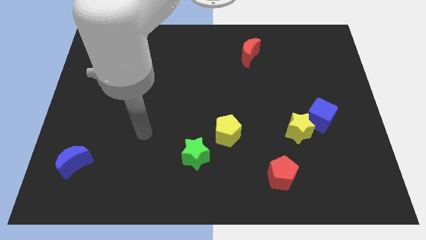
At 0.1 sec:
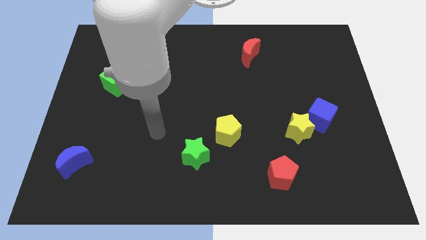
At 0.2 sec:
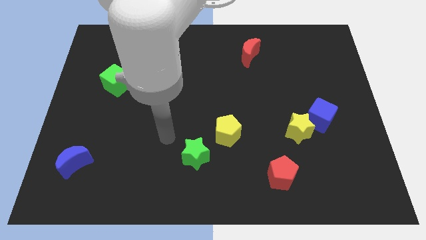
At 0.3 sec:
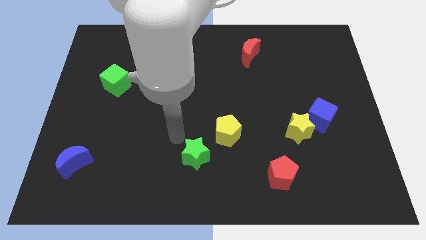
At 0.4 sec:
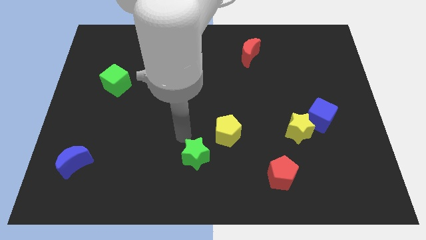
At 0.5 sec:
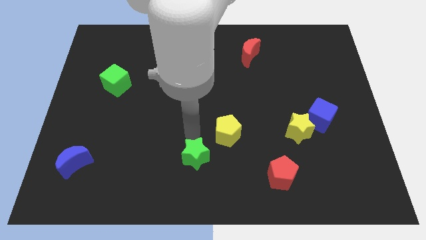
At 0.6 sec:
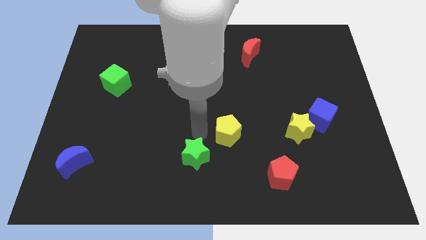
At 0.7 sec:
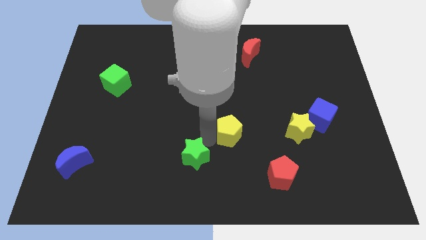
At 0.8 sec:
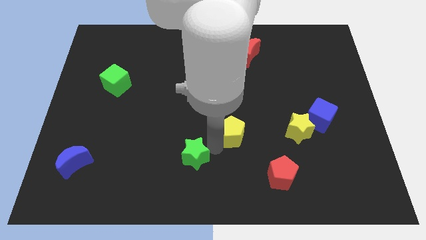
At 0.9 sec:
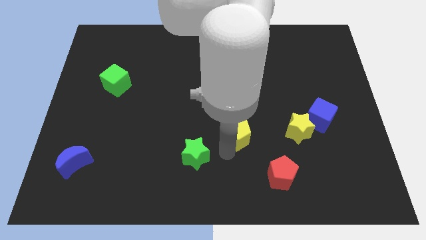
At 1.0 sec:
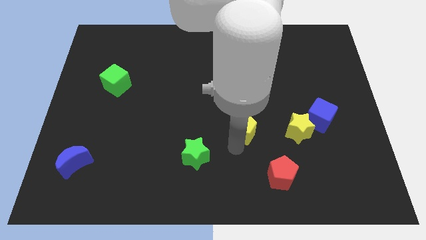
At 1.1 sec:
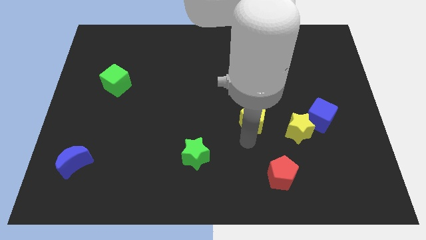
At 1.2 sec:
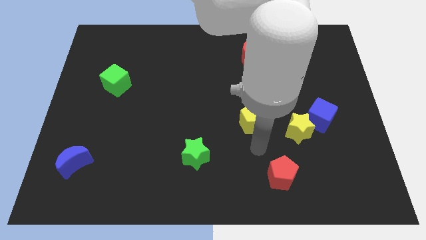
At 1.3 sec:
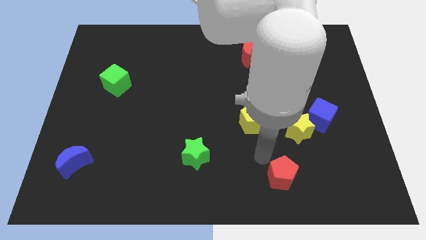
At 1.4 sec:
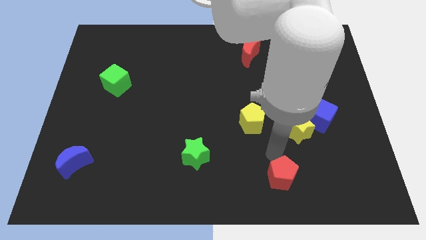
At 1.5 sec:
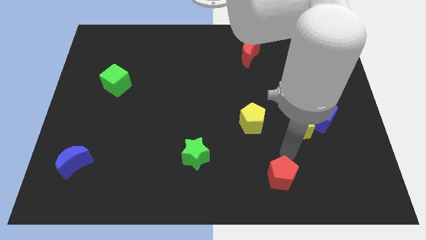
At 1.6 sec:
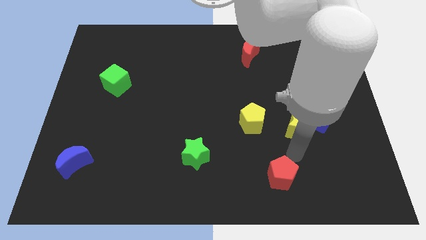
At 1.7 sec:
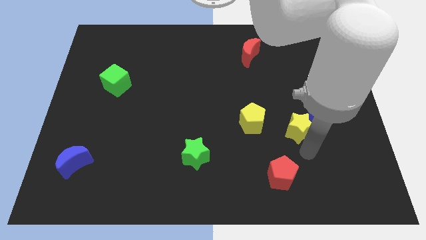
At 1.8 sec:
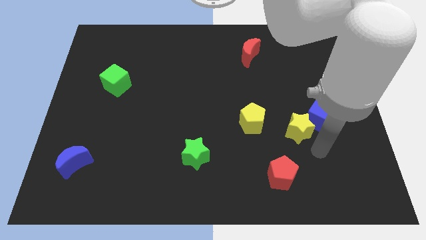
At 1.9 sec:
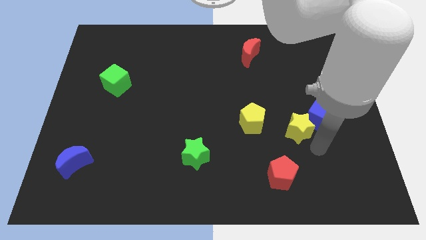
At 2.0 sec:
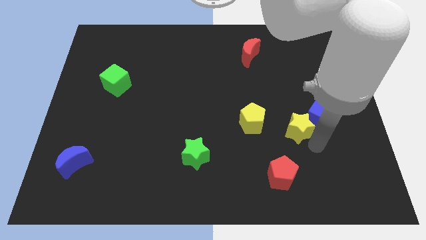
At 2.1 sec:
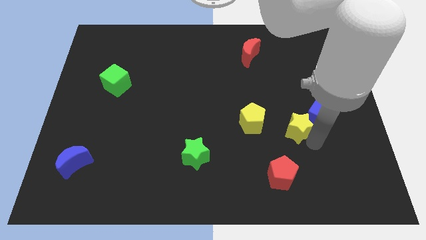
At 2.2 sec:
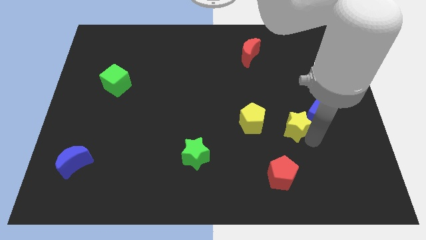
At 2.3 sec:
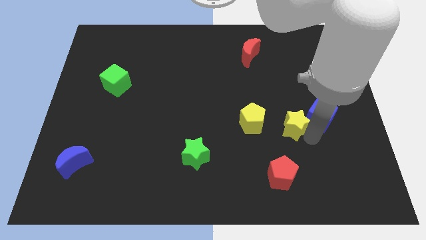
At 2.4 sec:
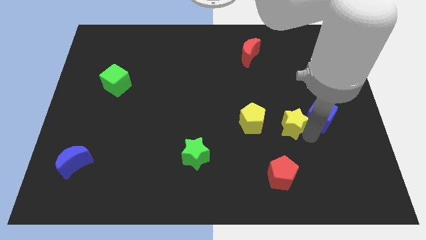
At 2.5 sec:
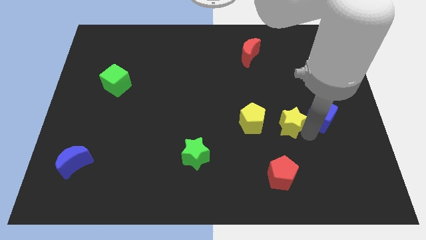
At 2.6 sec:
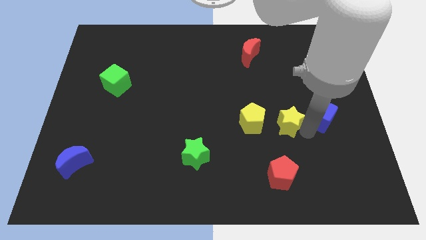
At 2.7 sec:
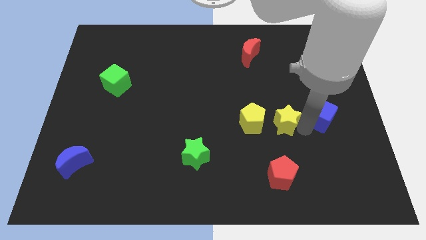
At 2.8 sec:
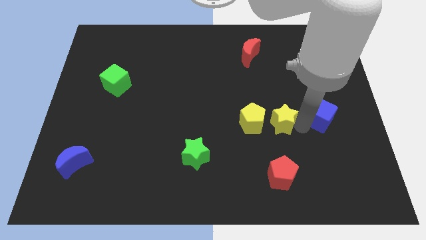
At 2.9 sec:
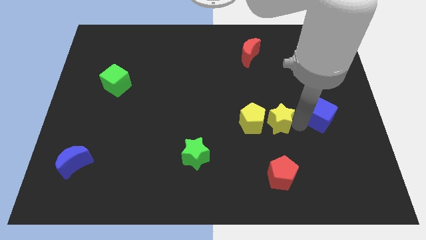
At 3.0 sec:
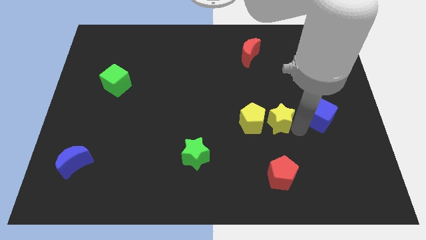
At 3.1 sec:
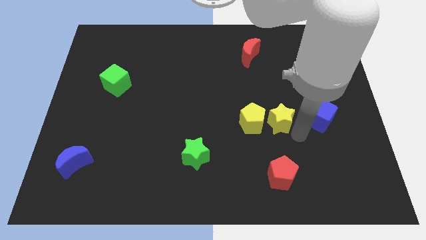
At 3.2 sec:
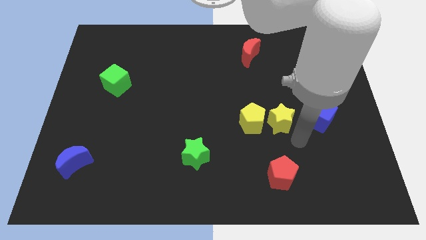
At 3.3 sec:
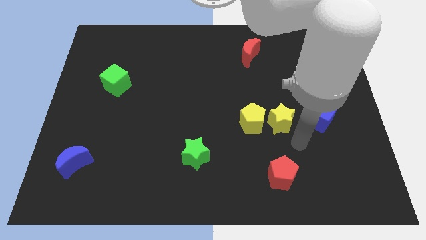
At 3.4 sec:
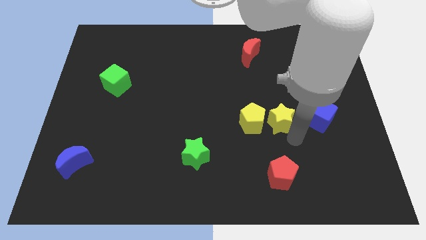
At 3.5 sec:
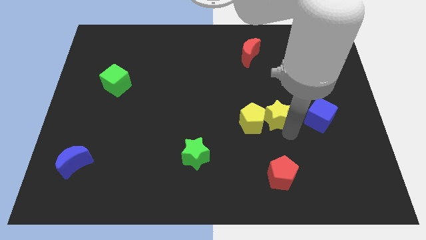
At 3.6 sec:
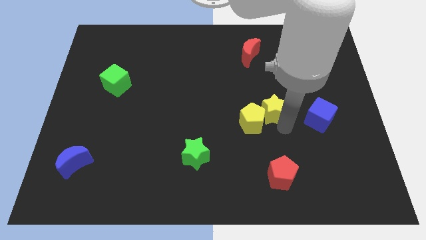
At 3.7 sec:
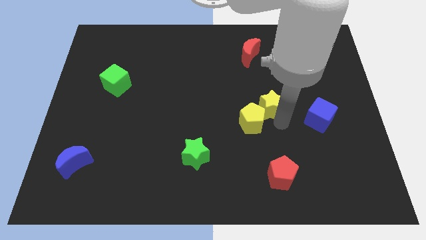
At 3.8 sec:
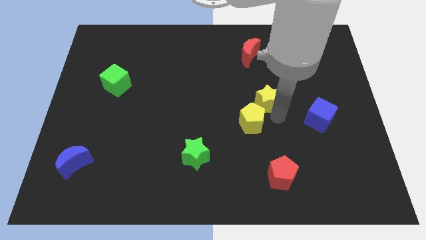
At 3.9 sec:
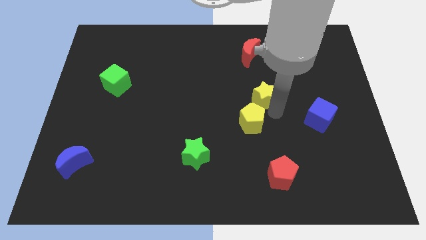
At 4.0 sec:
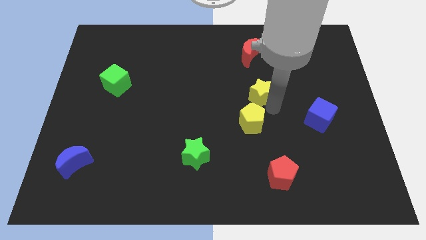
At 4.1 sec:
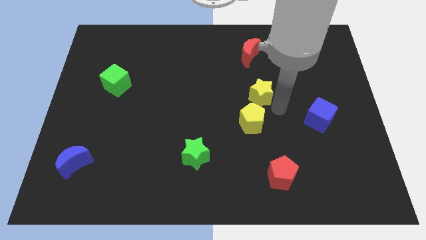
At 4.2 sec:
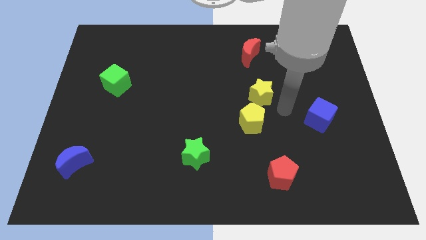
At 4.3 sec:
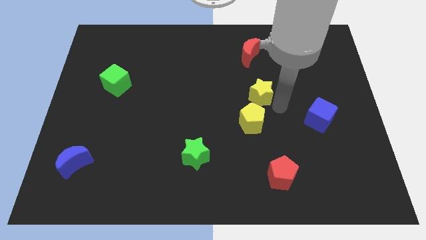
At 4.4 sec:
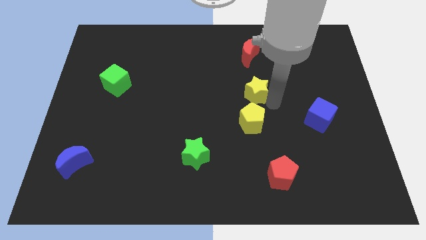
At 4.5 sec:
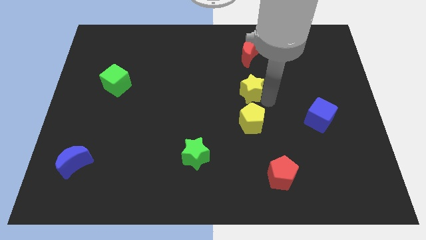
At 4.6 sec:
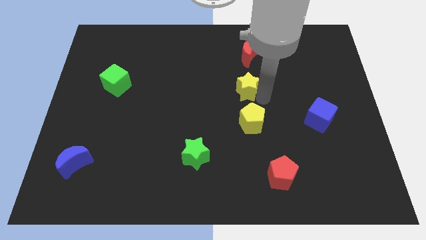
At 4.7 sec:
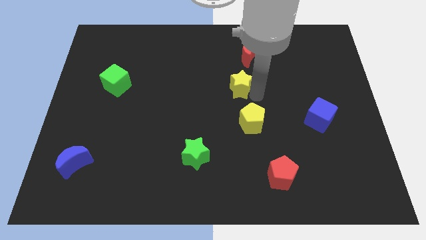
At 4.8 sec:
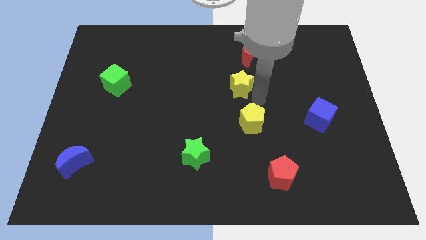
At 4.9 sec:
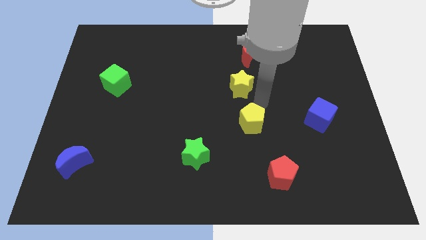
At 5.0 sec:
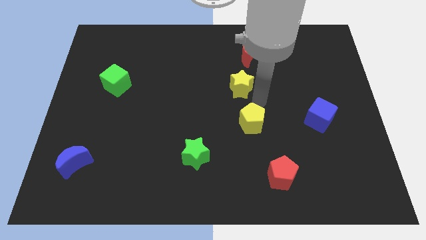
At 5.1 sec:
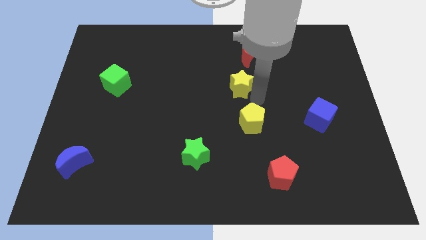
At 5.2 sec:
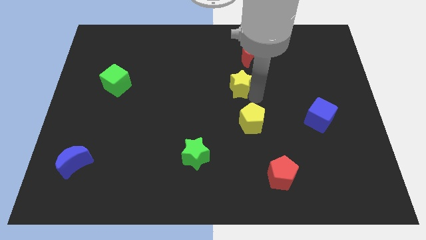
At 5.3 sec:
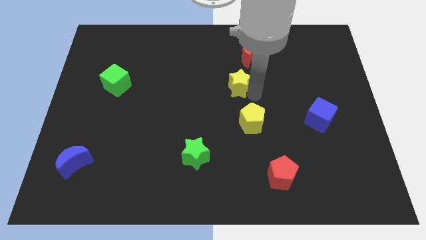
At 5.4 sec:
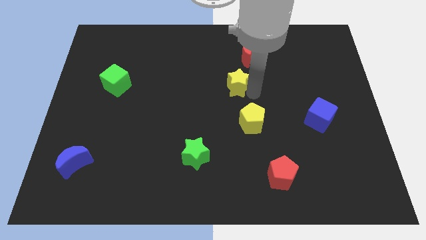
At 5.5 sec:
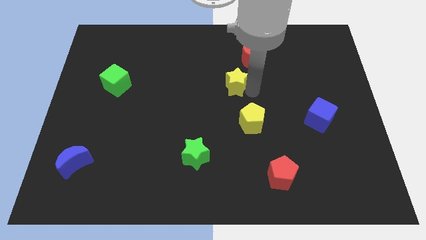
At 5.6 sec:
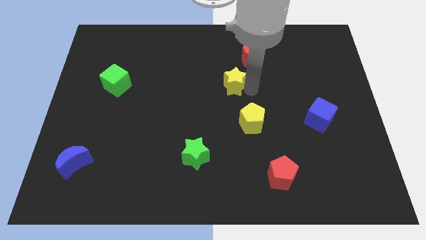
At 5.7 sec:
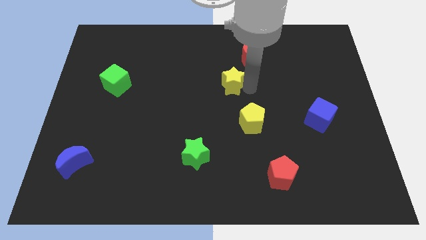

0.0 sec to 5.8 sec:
push the yellow star diagonally upwards and to the left

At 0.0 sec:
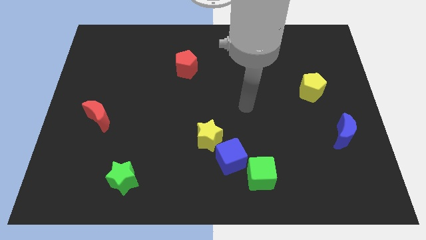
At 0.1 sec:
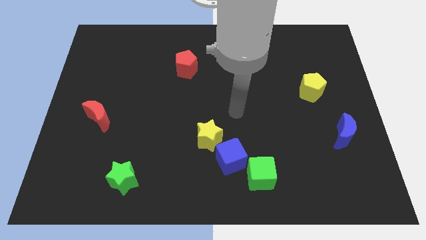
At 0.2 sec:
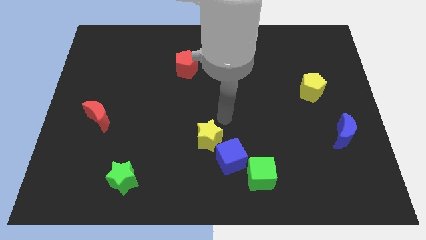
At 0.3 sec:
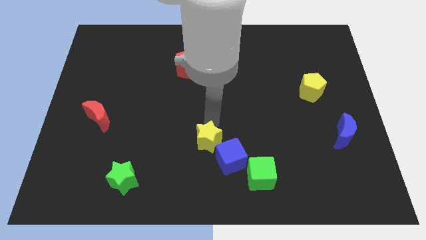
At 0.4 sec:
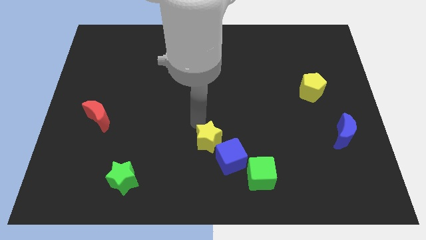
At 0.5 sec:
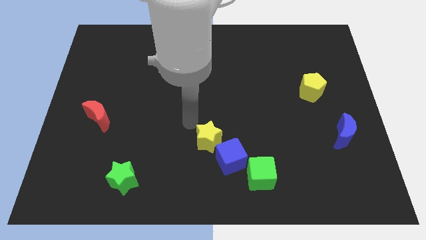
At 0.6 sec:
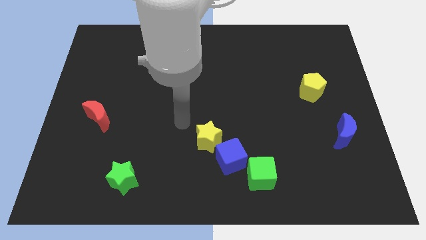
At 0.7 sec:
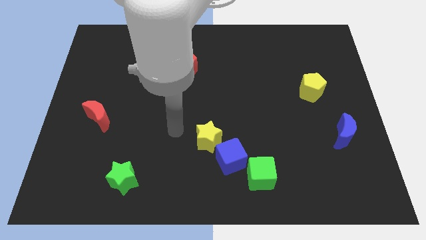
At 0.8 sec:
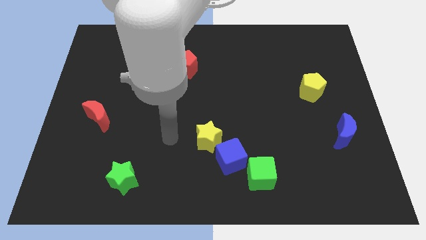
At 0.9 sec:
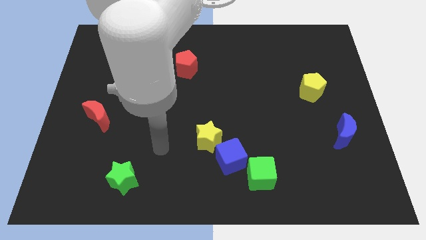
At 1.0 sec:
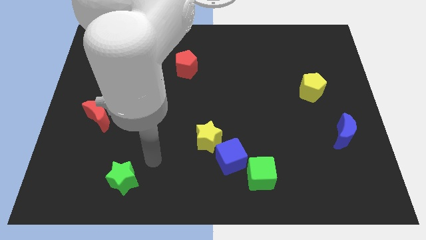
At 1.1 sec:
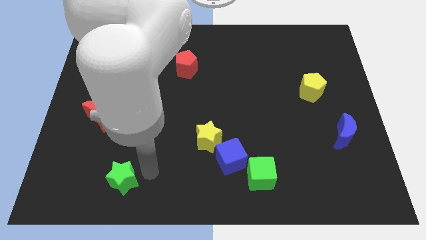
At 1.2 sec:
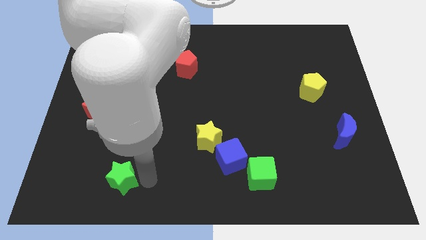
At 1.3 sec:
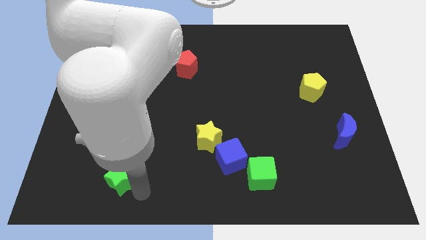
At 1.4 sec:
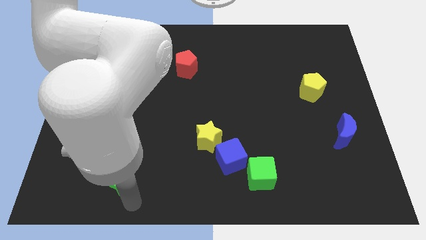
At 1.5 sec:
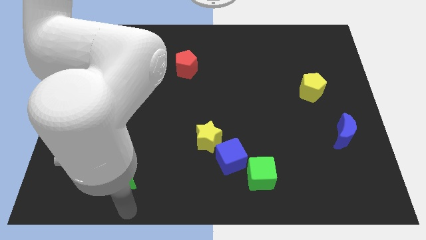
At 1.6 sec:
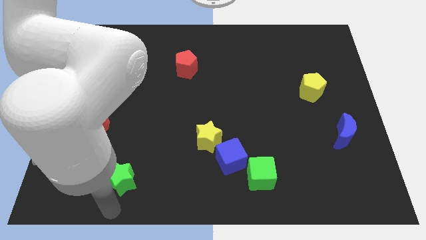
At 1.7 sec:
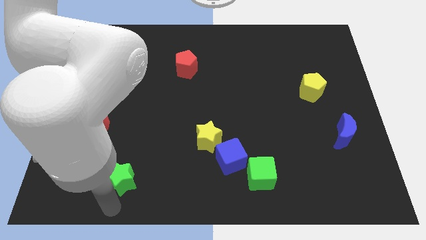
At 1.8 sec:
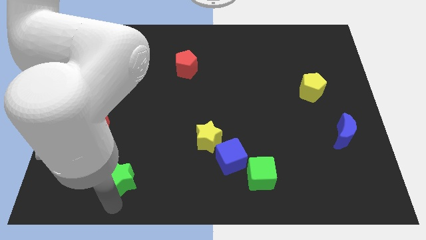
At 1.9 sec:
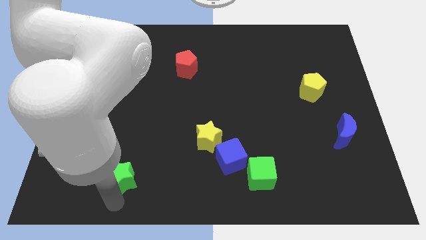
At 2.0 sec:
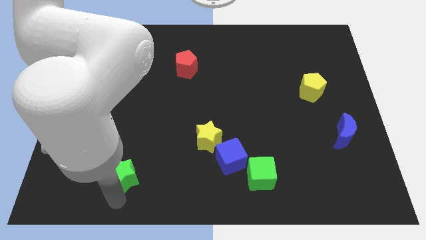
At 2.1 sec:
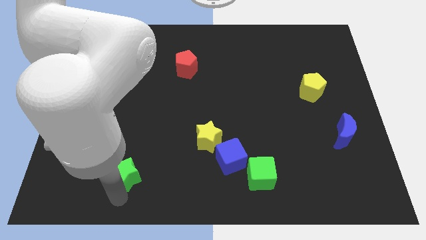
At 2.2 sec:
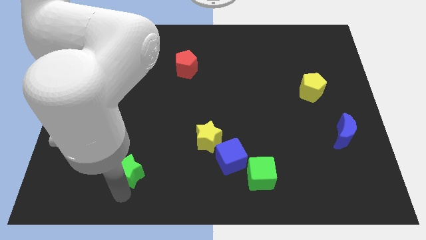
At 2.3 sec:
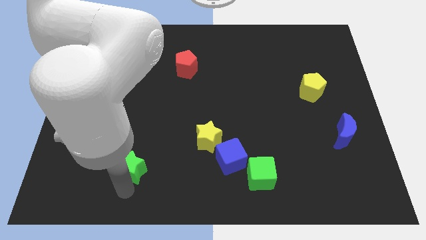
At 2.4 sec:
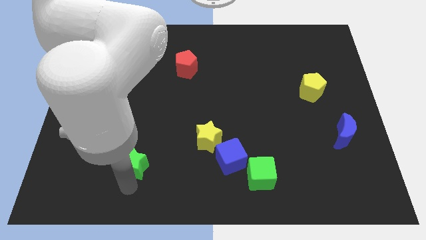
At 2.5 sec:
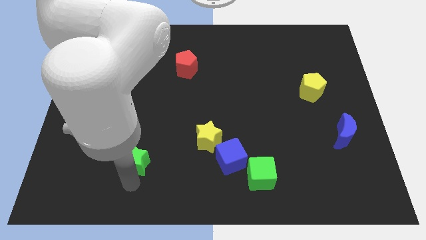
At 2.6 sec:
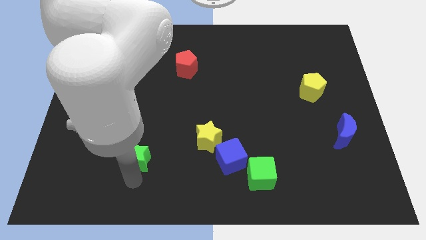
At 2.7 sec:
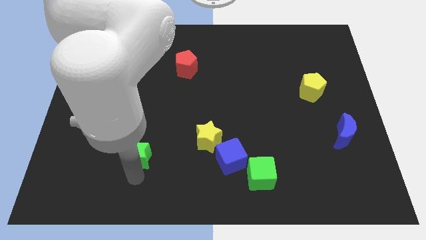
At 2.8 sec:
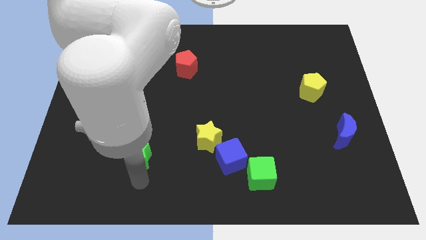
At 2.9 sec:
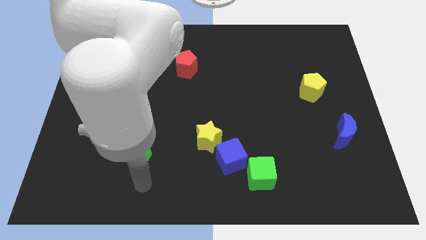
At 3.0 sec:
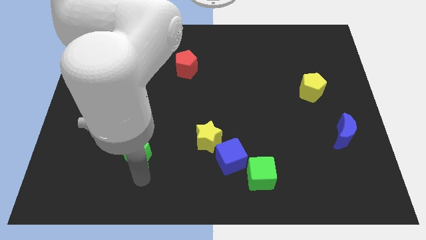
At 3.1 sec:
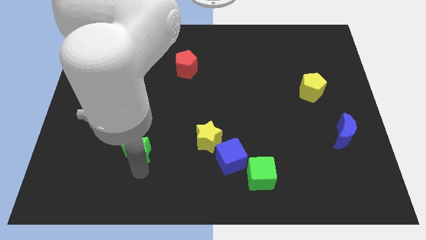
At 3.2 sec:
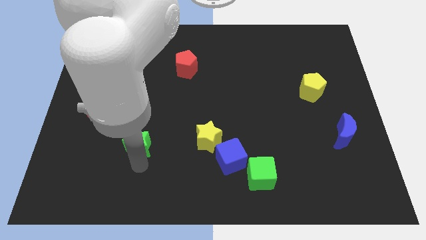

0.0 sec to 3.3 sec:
slightly move the green star upwards
